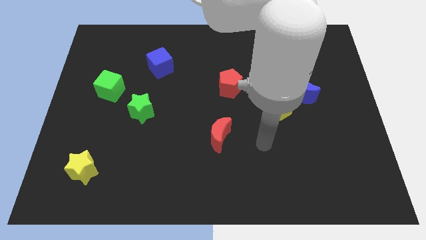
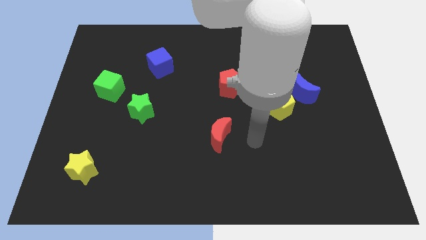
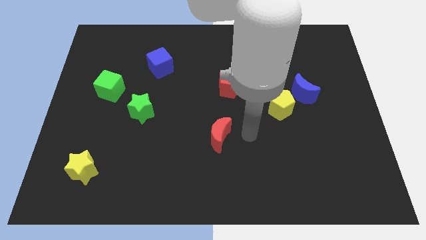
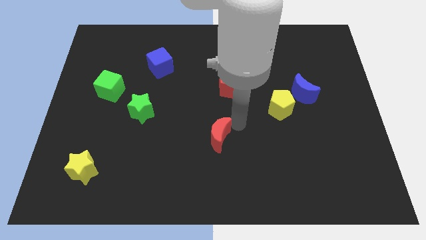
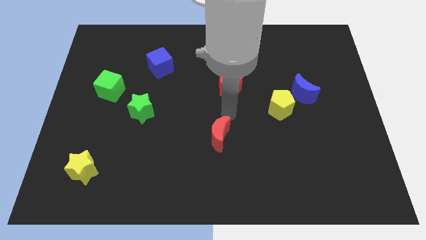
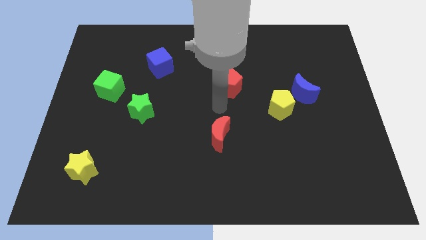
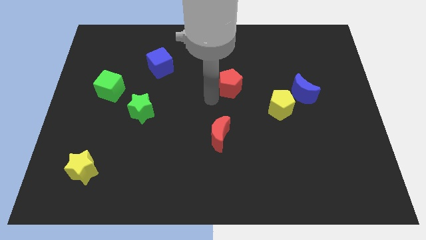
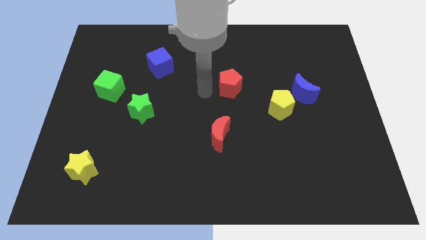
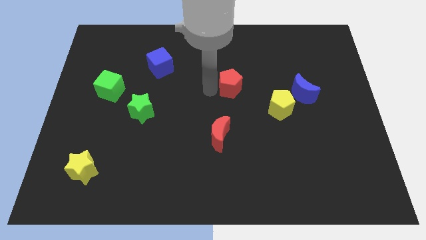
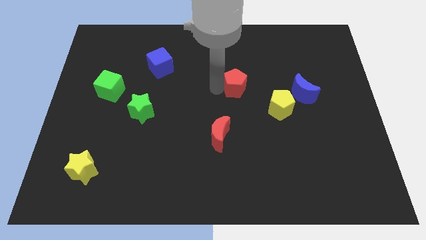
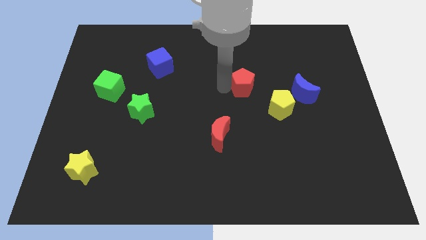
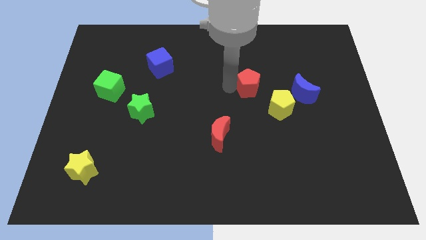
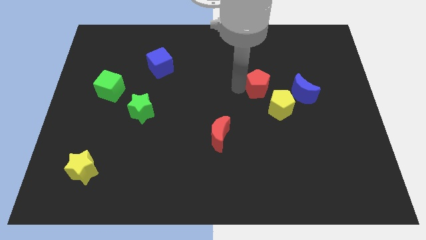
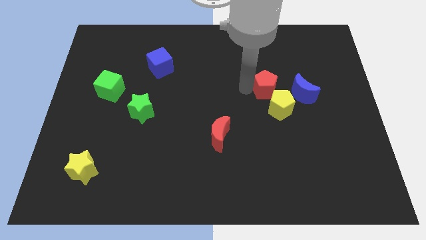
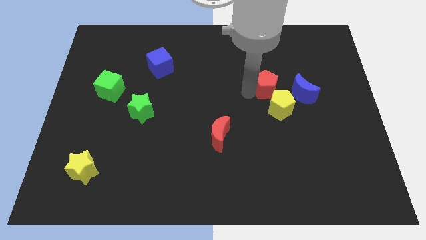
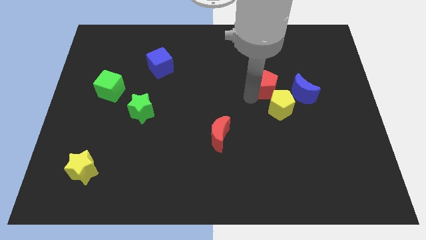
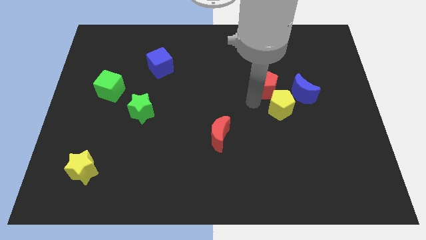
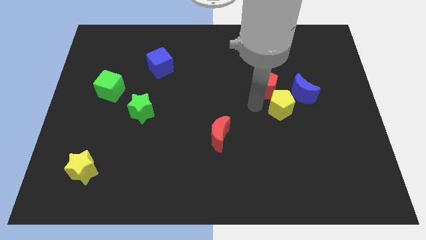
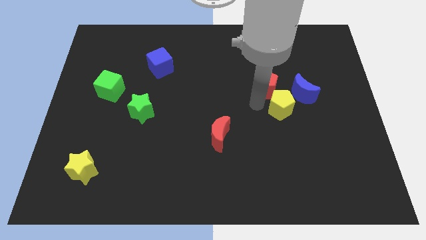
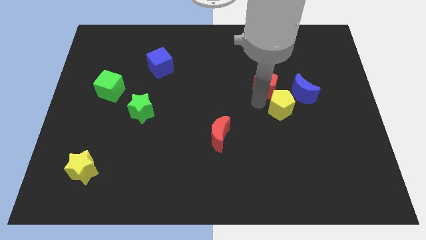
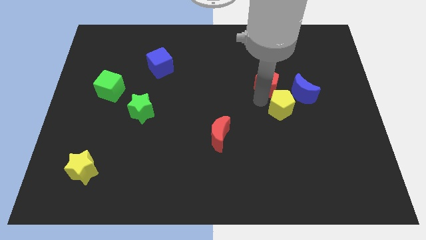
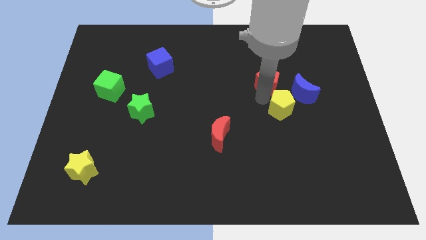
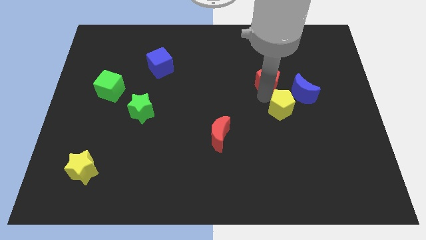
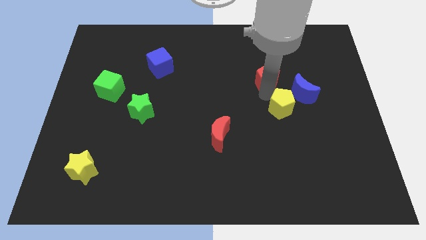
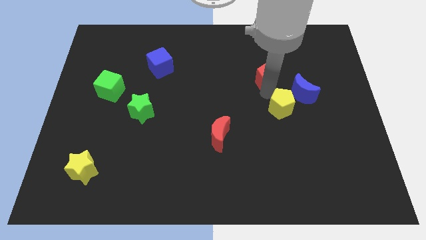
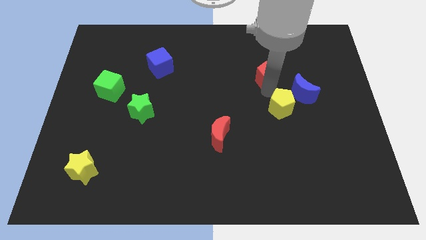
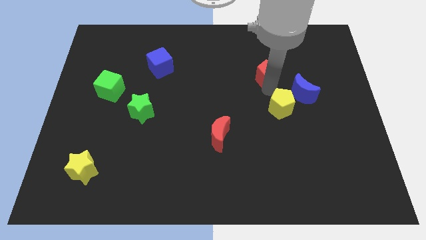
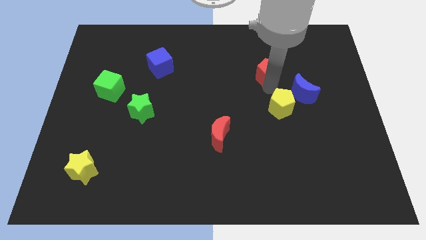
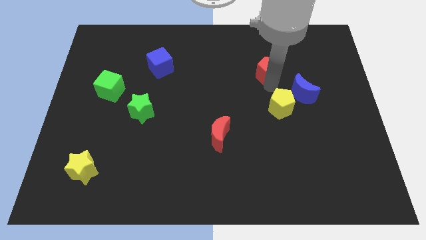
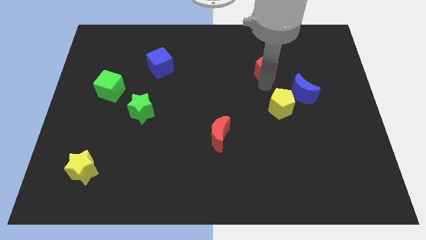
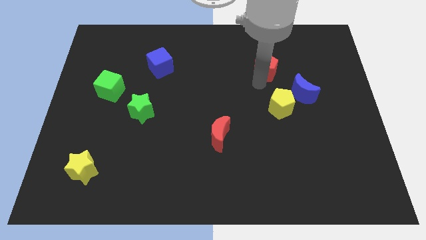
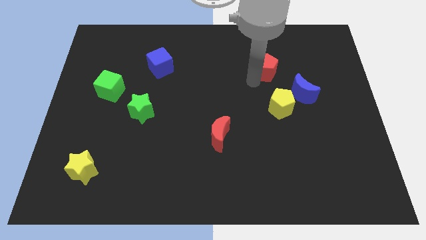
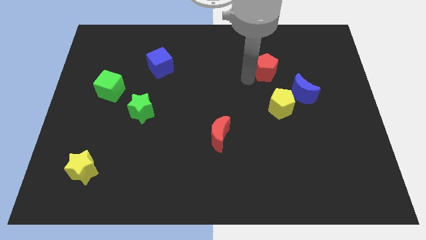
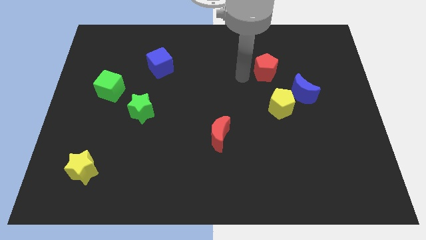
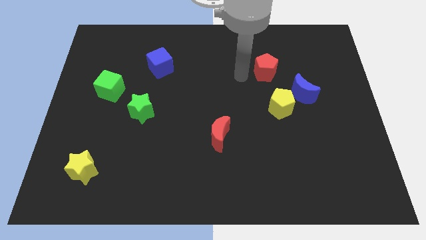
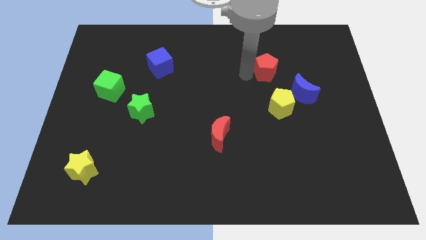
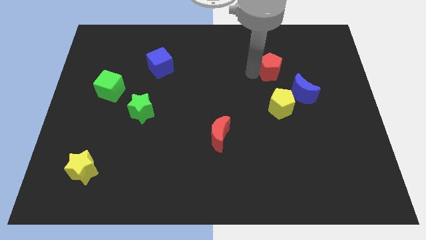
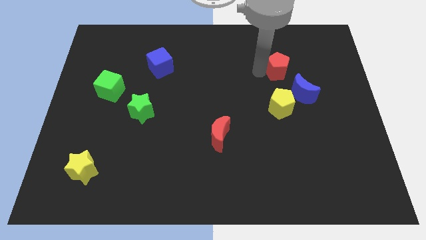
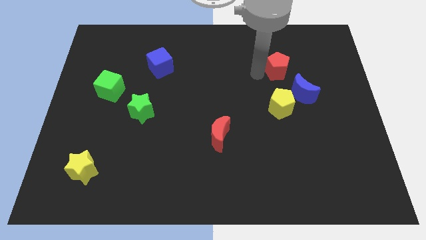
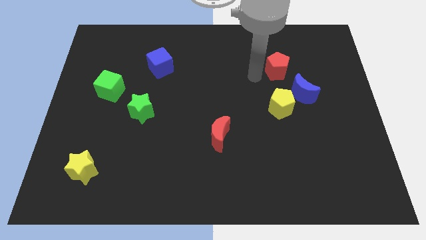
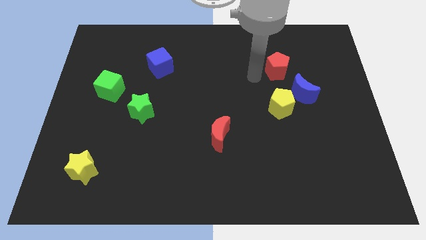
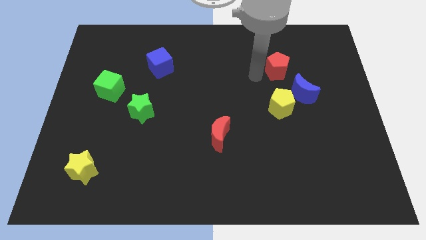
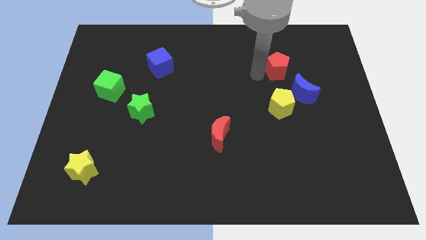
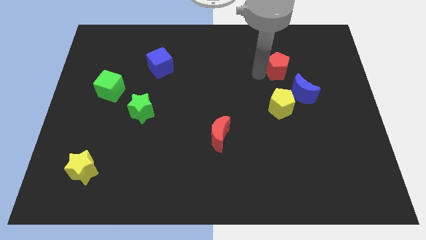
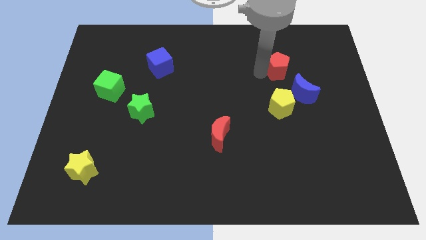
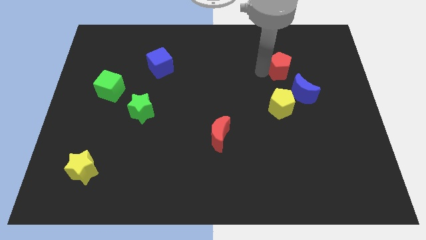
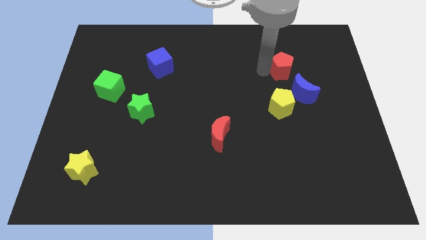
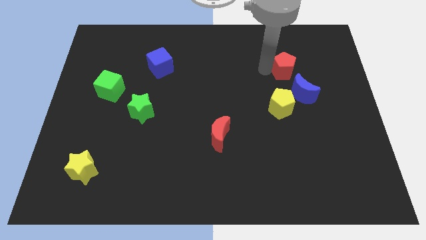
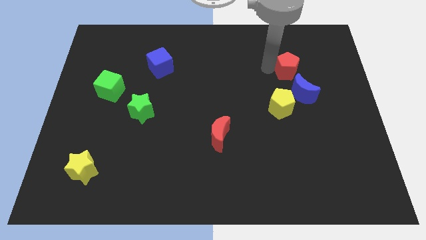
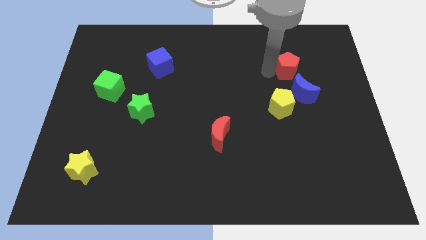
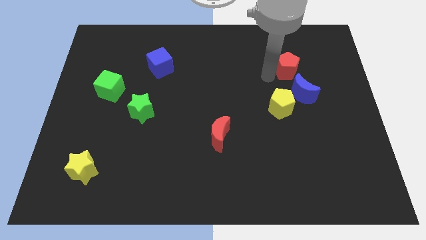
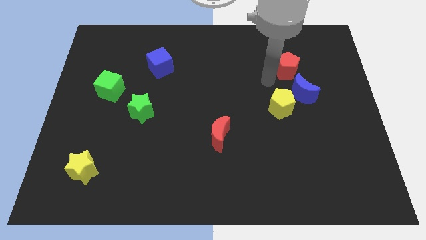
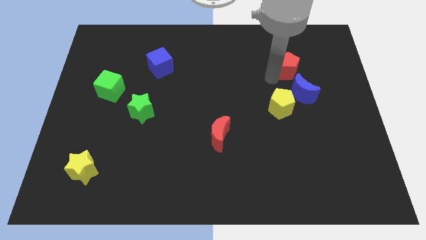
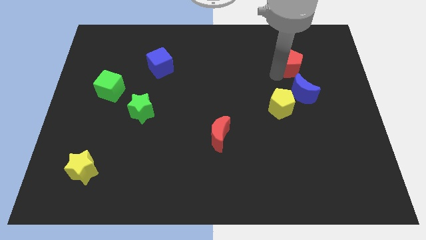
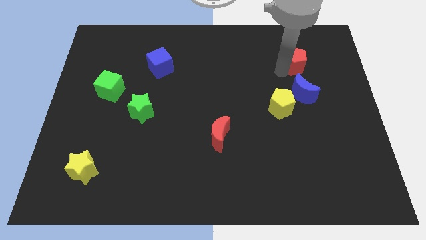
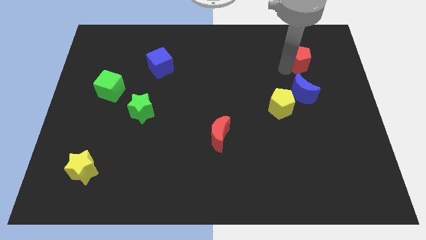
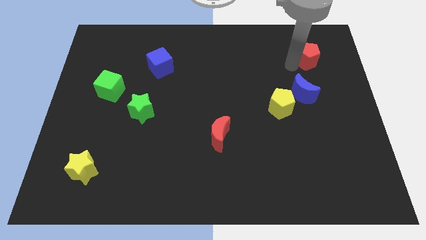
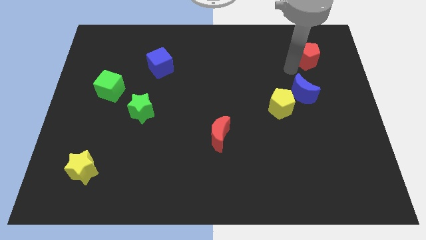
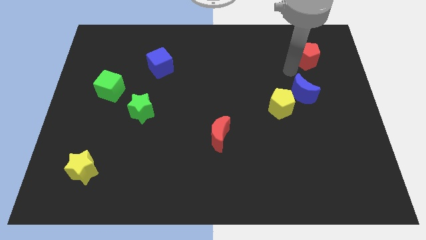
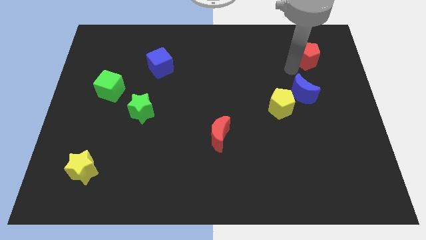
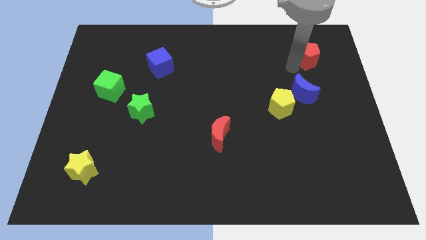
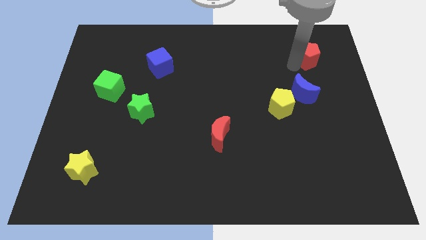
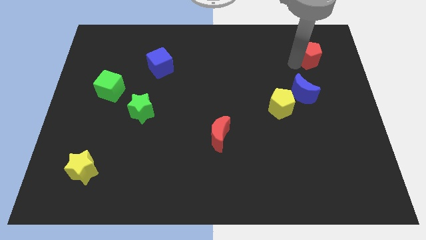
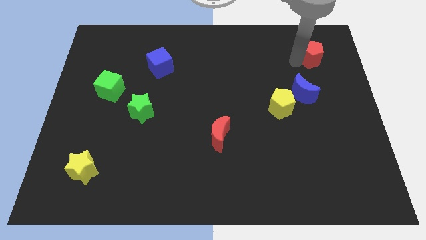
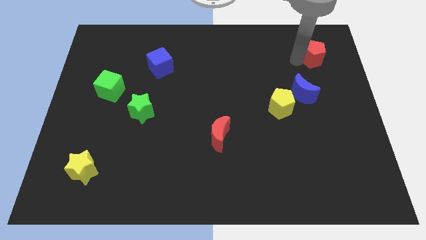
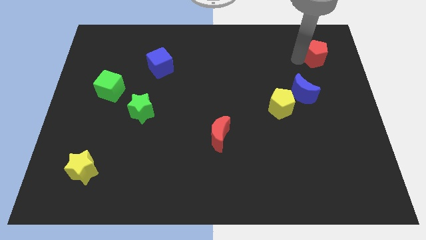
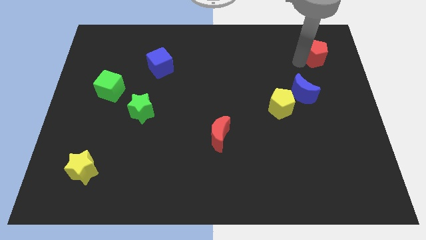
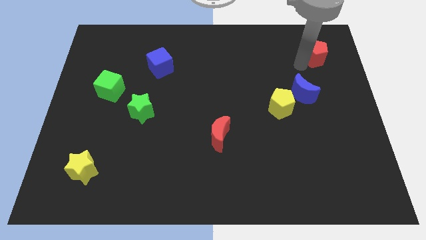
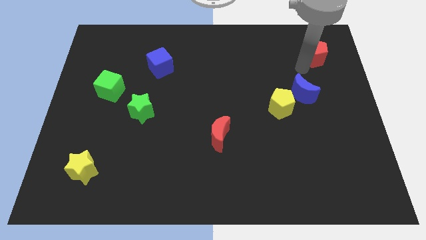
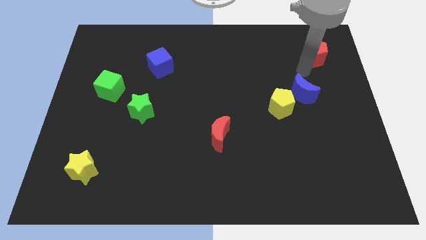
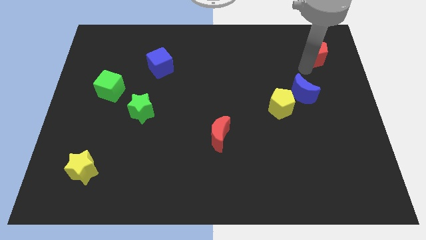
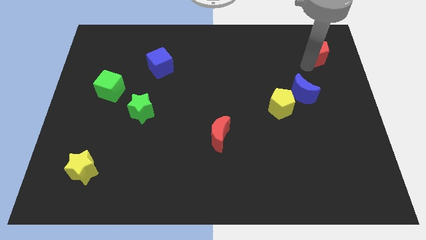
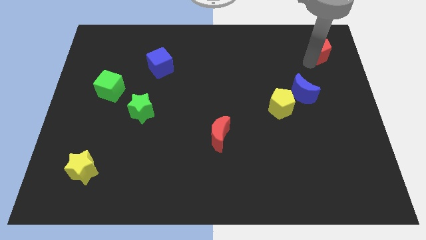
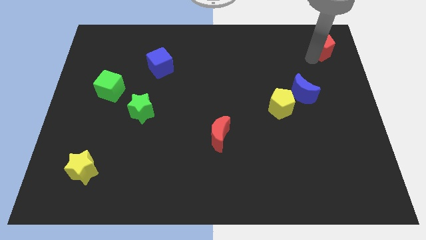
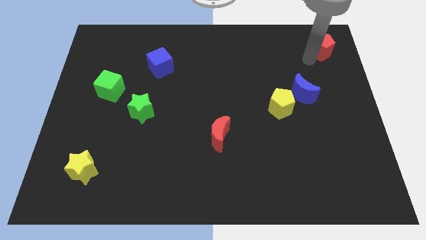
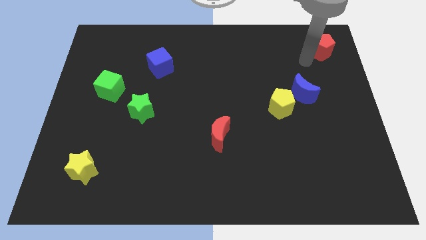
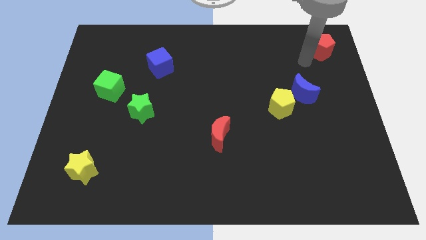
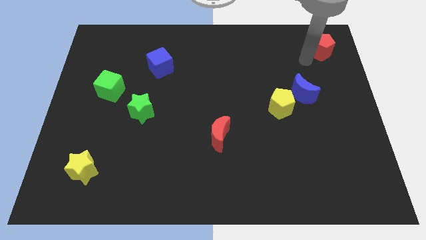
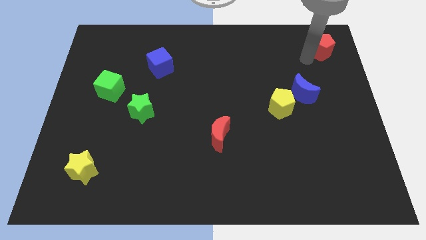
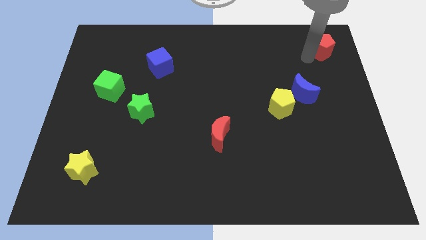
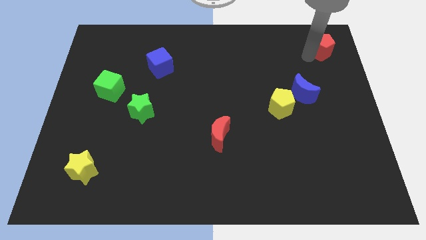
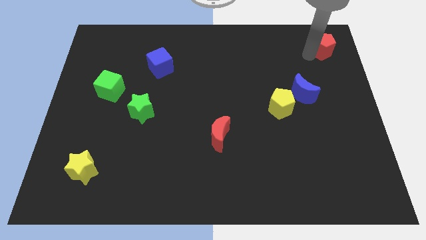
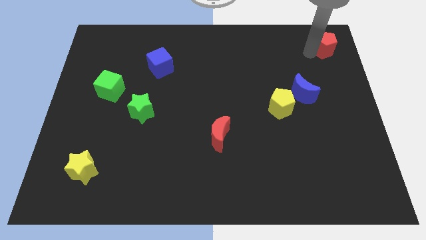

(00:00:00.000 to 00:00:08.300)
put the red pentagon to the top right of the board
